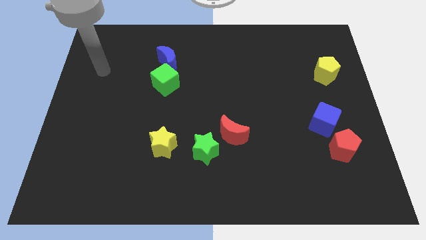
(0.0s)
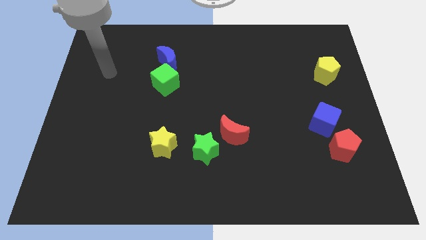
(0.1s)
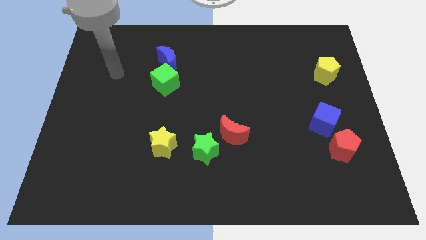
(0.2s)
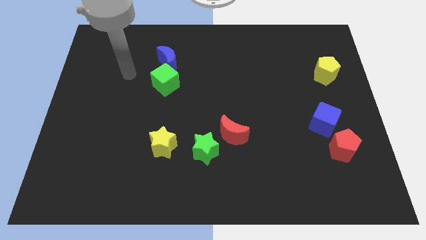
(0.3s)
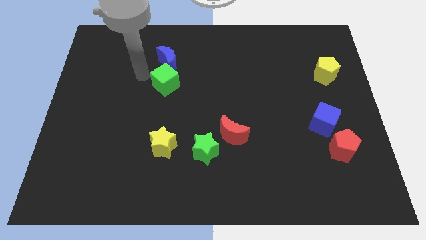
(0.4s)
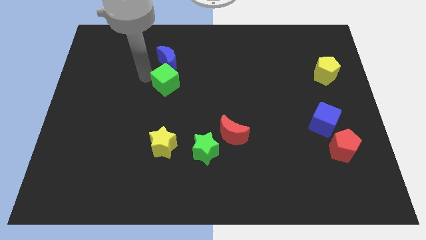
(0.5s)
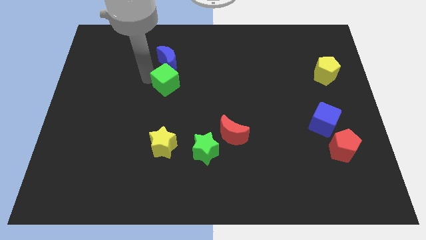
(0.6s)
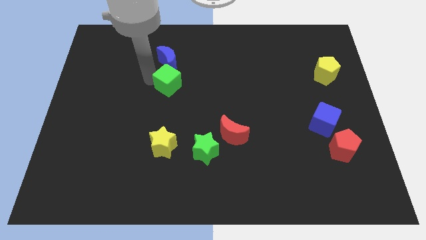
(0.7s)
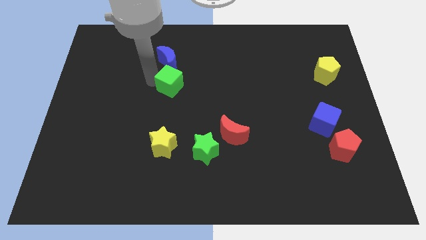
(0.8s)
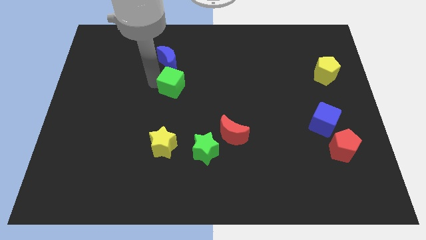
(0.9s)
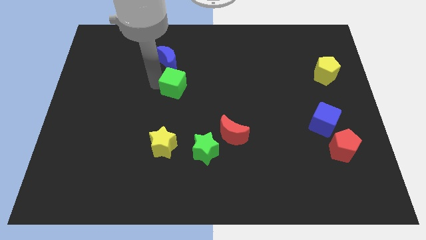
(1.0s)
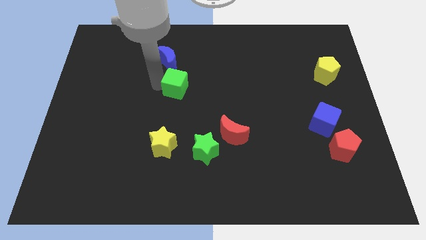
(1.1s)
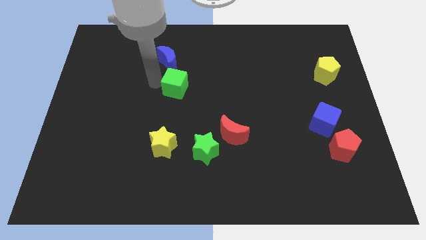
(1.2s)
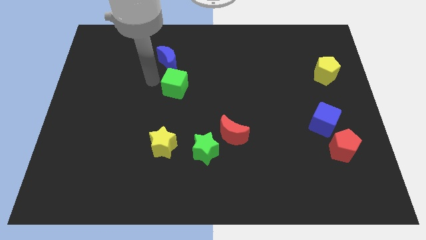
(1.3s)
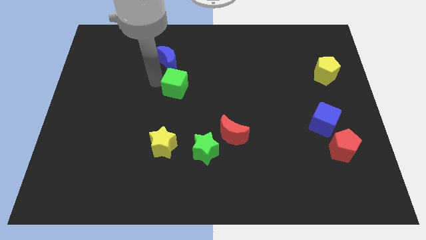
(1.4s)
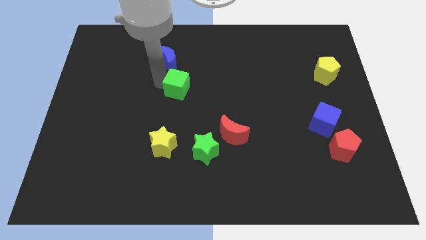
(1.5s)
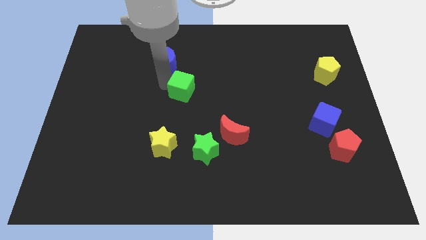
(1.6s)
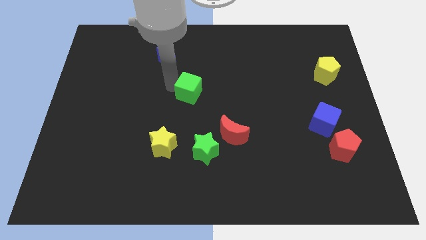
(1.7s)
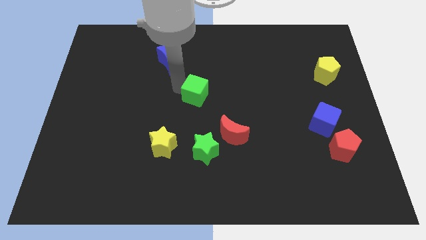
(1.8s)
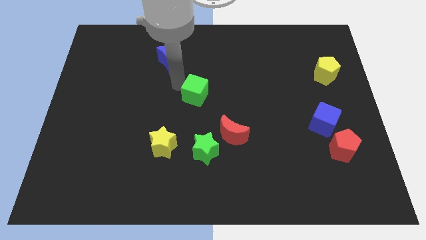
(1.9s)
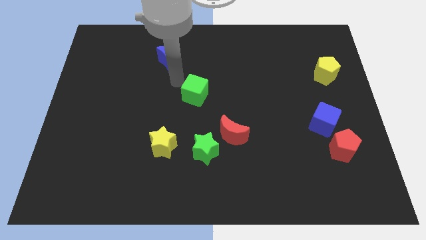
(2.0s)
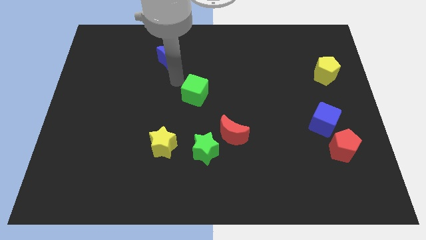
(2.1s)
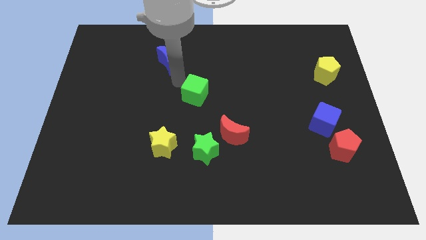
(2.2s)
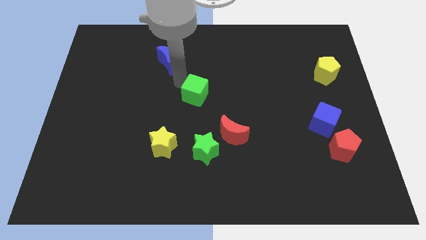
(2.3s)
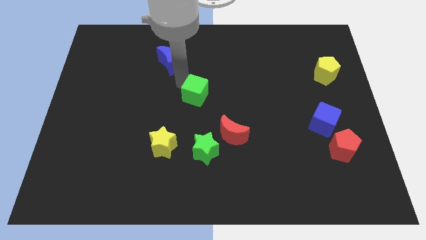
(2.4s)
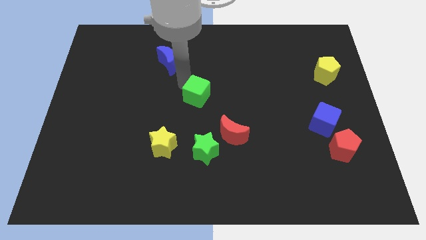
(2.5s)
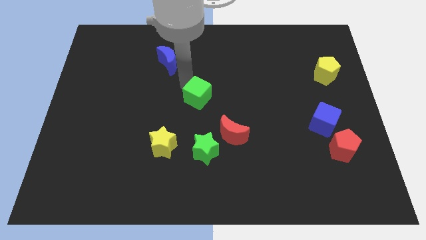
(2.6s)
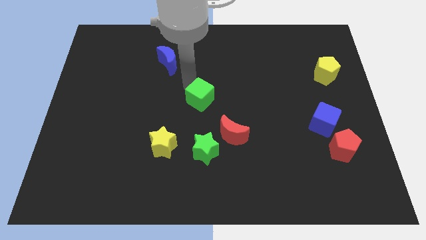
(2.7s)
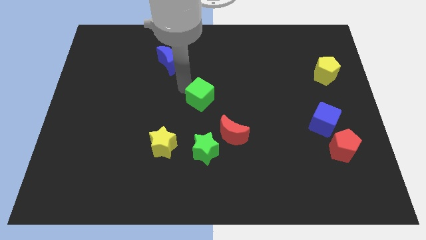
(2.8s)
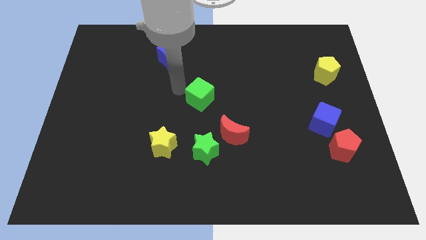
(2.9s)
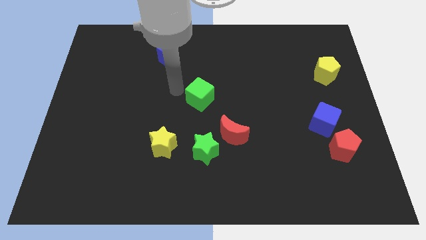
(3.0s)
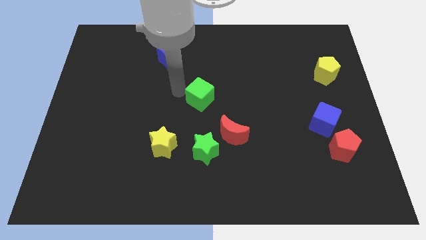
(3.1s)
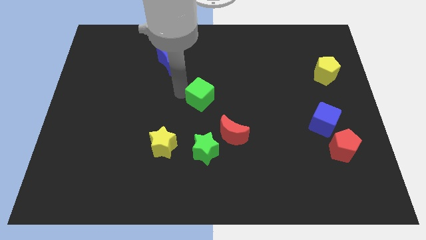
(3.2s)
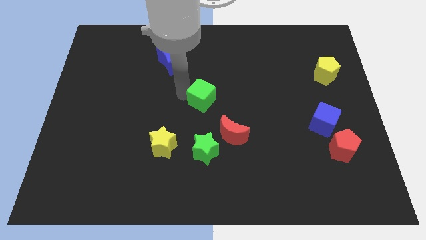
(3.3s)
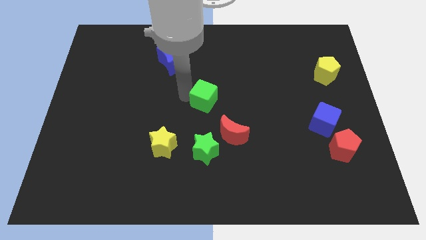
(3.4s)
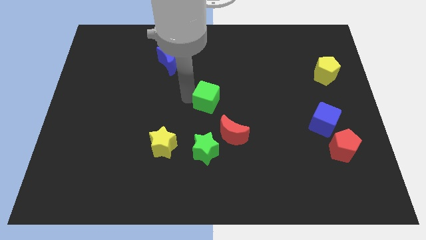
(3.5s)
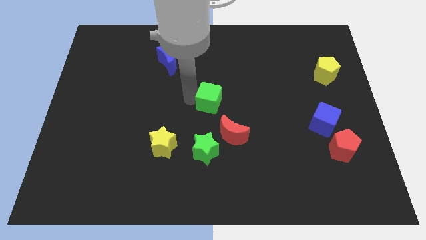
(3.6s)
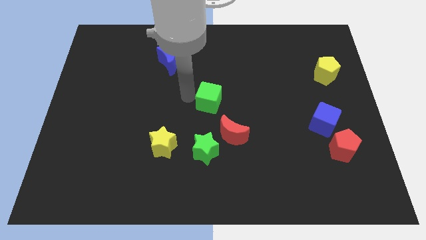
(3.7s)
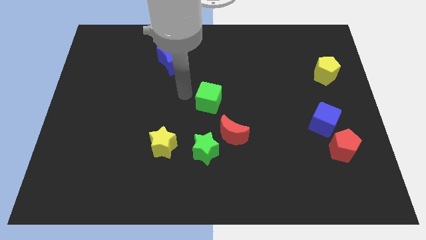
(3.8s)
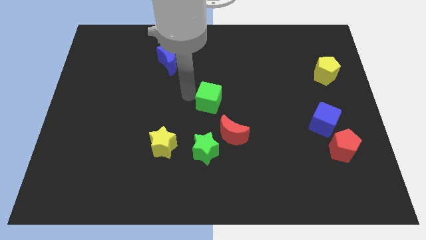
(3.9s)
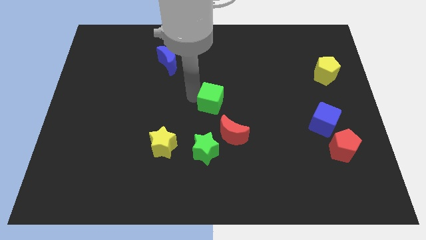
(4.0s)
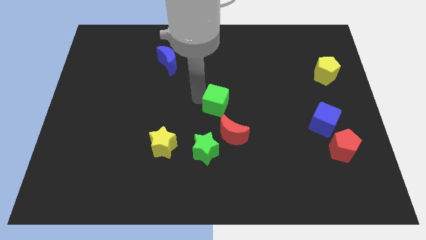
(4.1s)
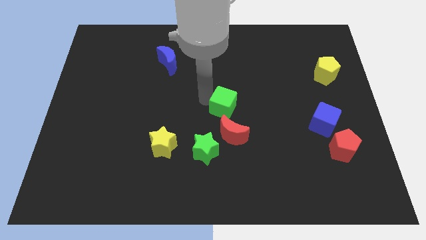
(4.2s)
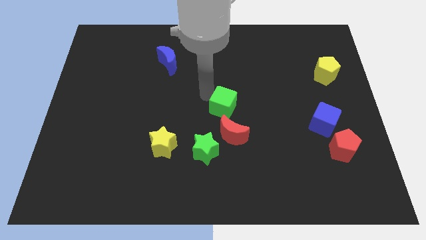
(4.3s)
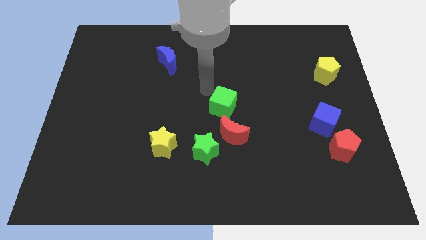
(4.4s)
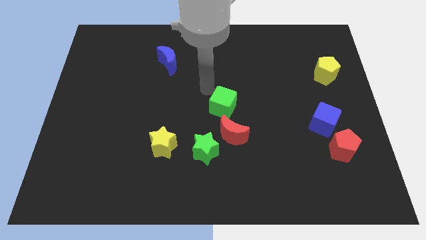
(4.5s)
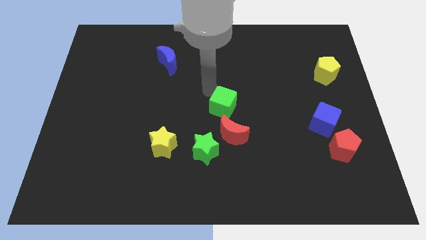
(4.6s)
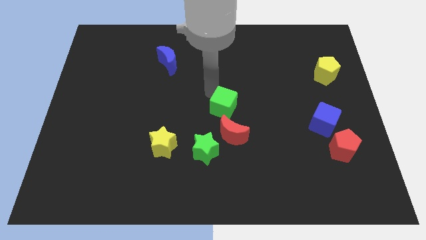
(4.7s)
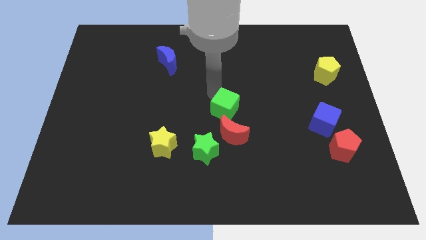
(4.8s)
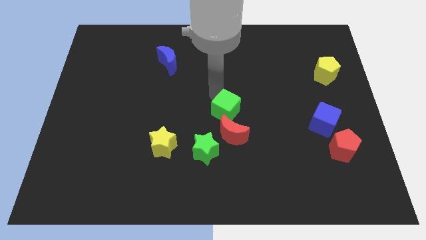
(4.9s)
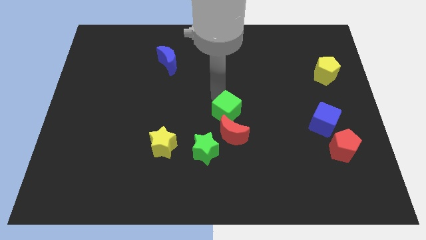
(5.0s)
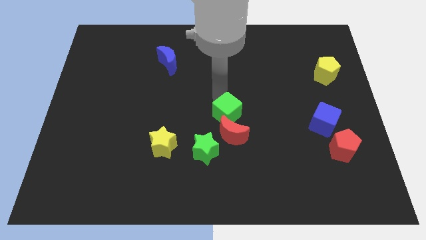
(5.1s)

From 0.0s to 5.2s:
slide the green cube diagonally up and to the right of the green star

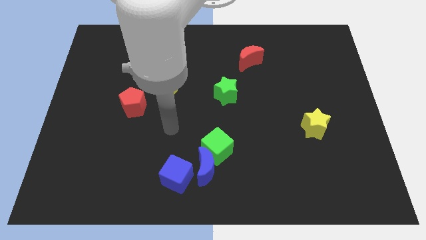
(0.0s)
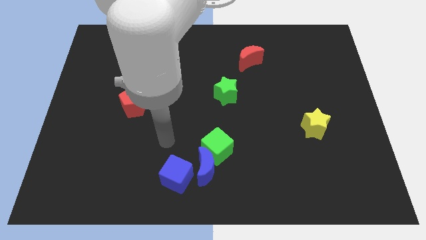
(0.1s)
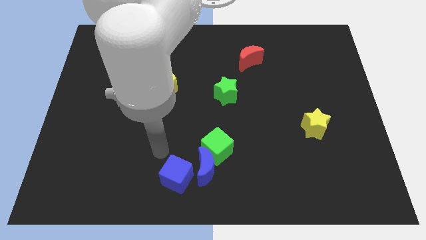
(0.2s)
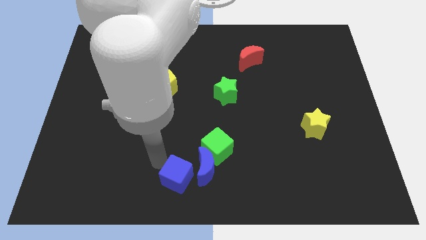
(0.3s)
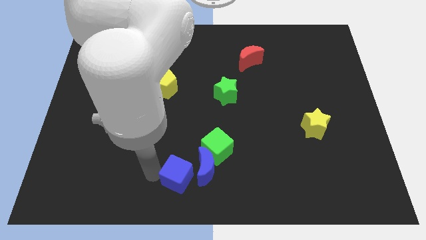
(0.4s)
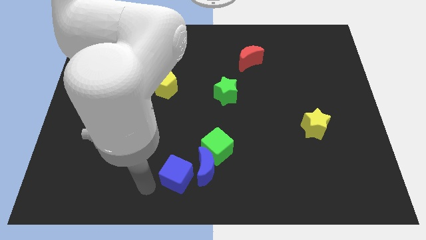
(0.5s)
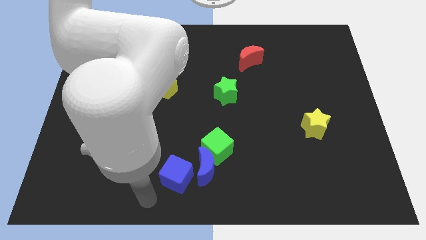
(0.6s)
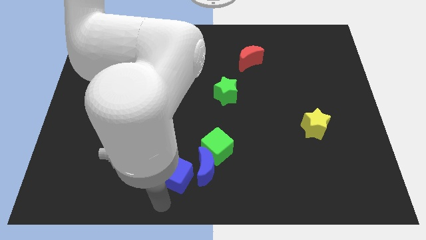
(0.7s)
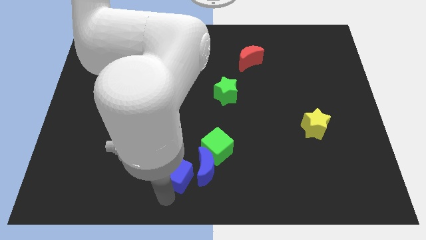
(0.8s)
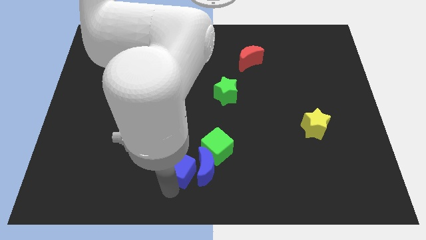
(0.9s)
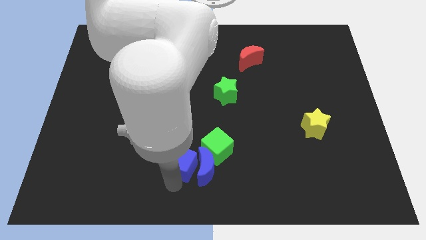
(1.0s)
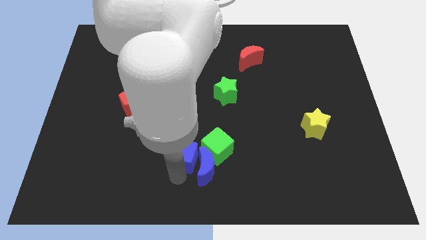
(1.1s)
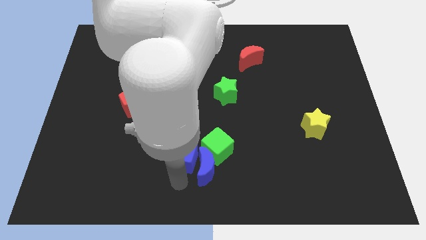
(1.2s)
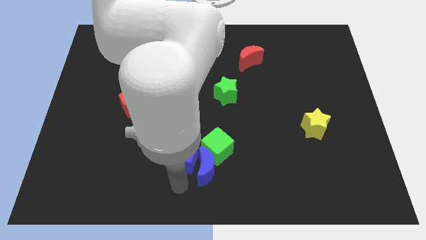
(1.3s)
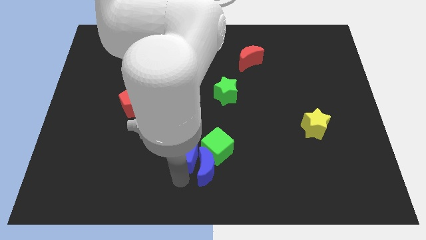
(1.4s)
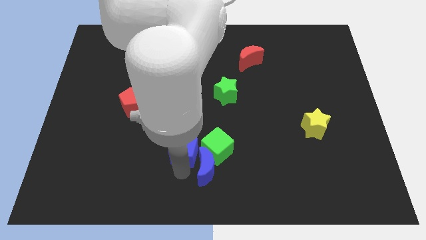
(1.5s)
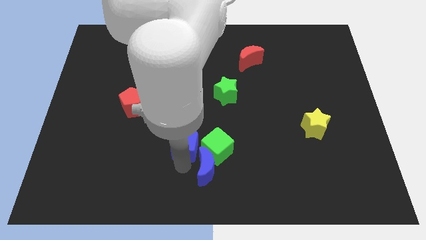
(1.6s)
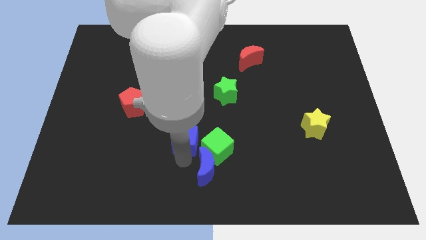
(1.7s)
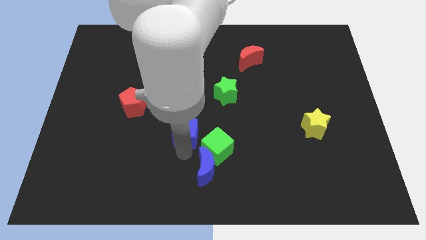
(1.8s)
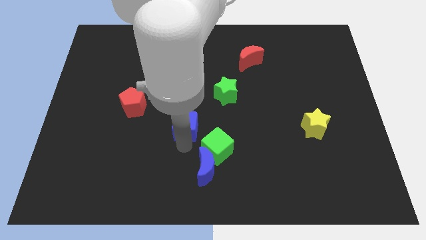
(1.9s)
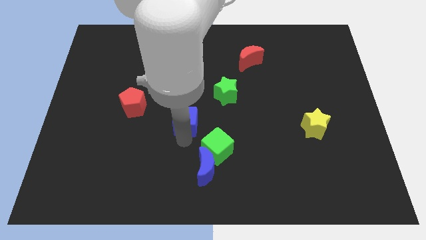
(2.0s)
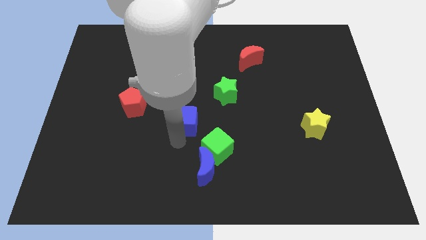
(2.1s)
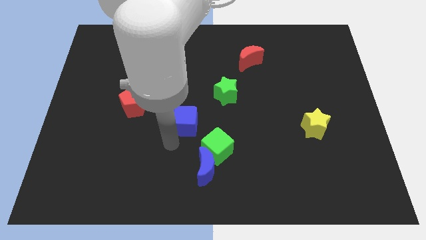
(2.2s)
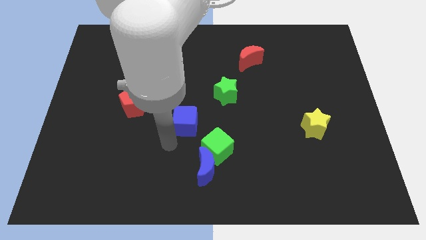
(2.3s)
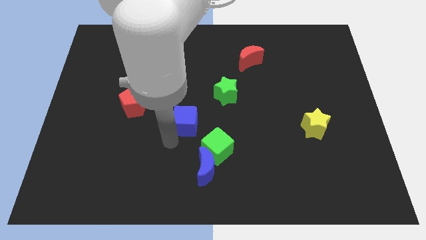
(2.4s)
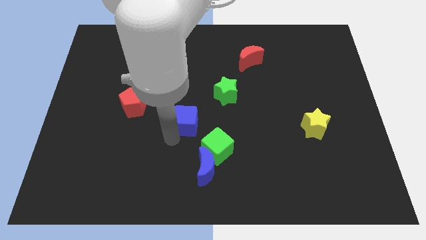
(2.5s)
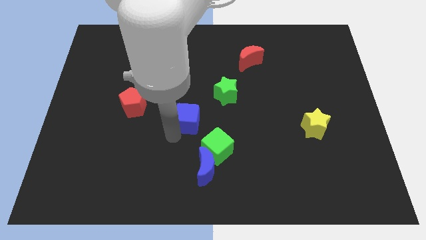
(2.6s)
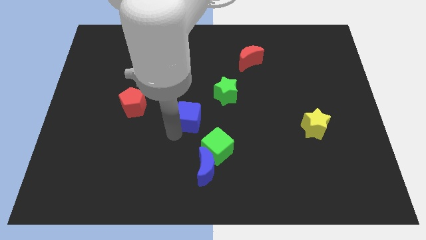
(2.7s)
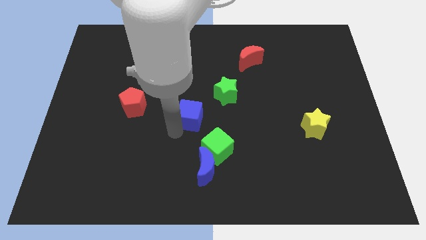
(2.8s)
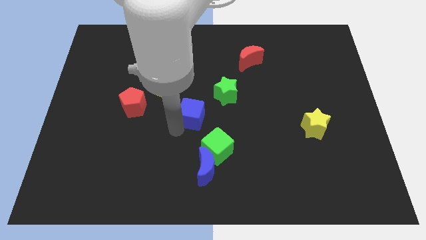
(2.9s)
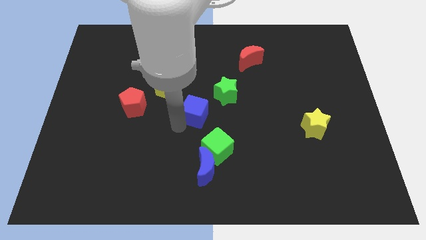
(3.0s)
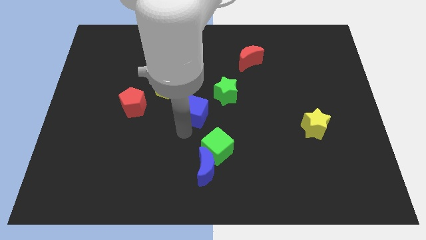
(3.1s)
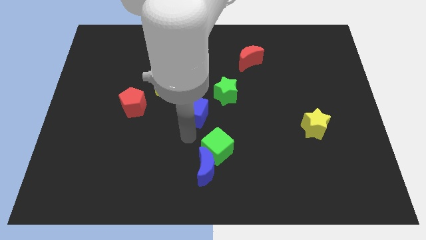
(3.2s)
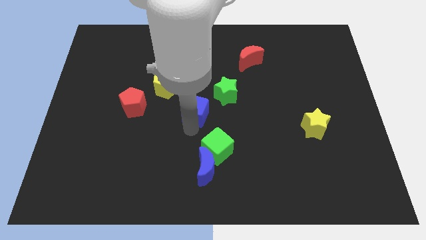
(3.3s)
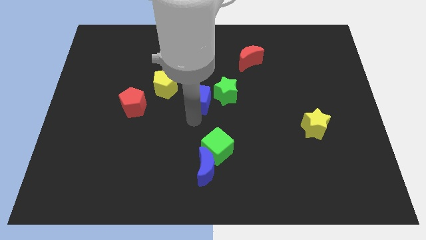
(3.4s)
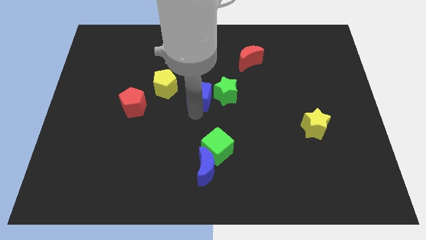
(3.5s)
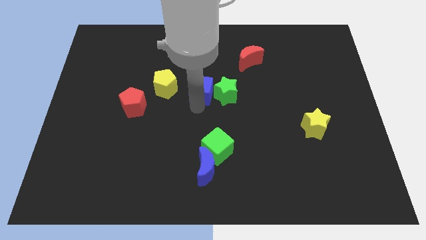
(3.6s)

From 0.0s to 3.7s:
push the blue cube diagonally up and to the left of the green star
